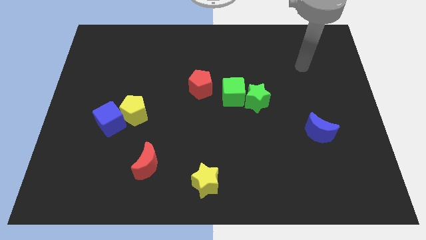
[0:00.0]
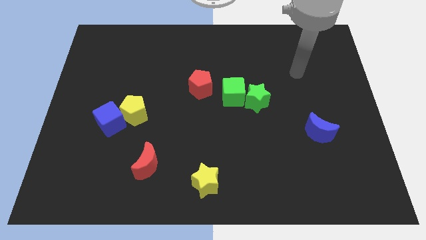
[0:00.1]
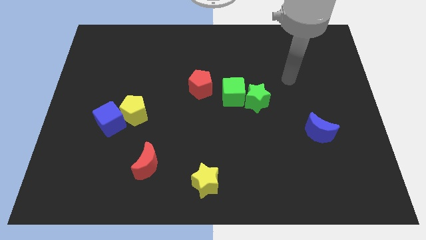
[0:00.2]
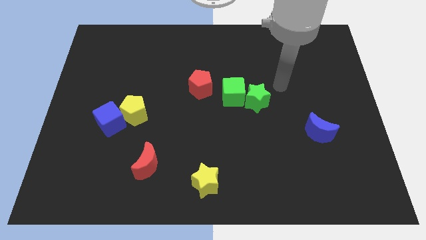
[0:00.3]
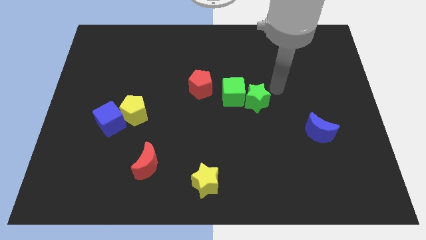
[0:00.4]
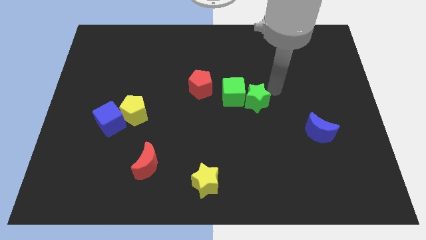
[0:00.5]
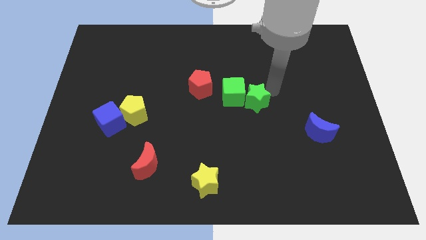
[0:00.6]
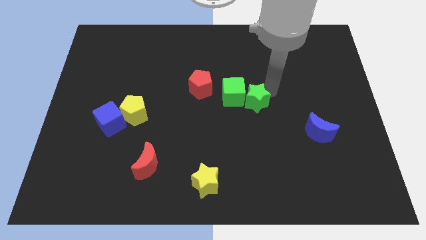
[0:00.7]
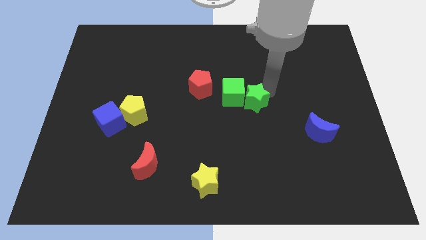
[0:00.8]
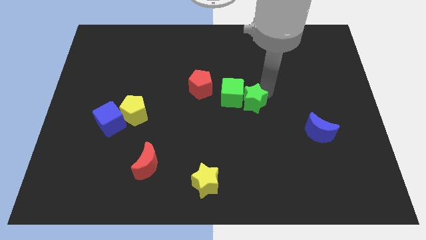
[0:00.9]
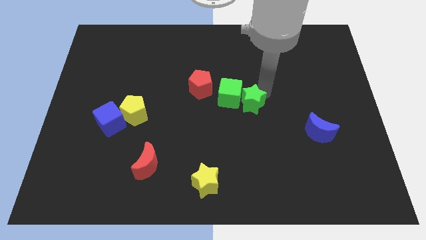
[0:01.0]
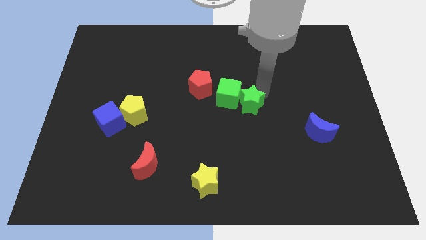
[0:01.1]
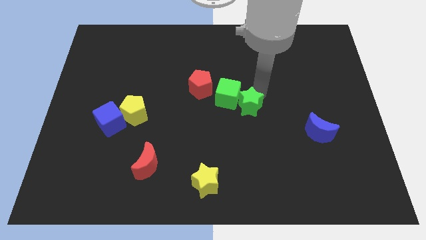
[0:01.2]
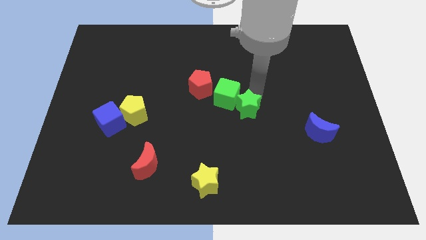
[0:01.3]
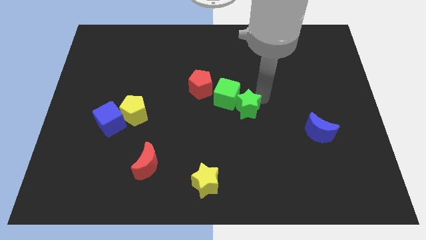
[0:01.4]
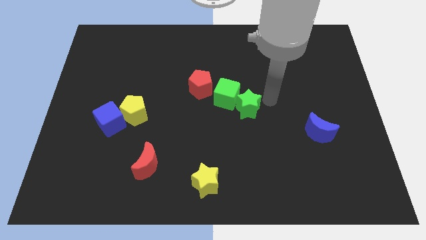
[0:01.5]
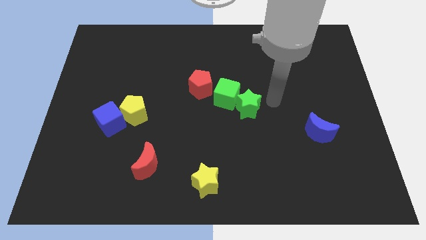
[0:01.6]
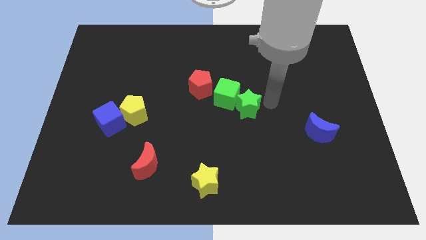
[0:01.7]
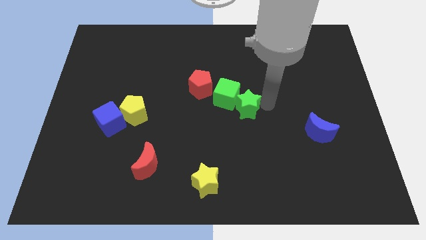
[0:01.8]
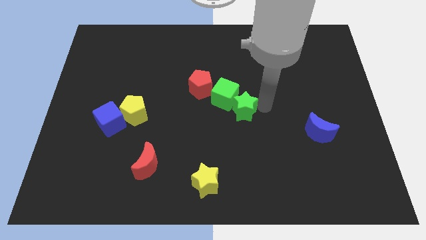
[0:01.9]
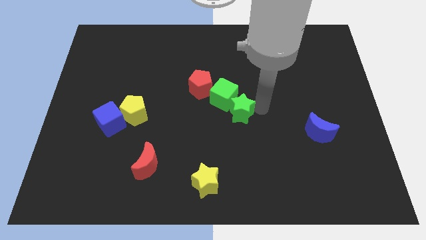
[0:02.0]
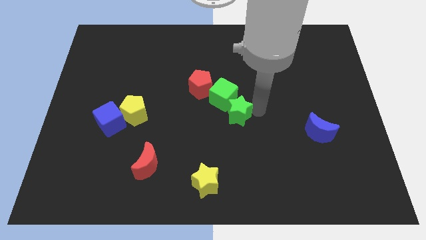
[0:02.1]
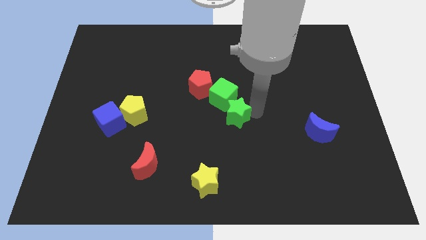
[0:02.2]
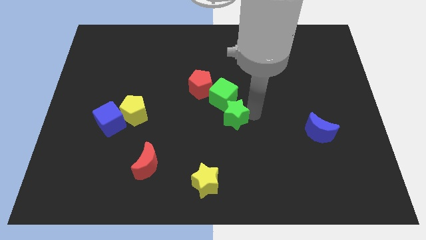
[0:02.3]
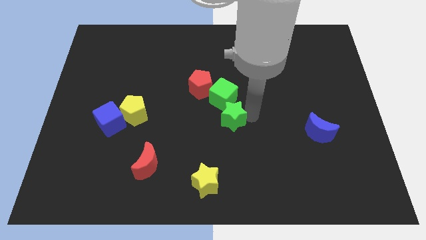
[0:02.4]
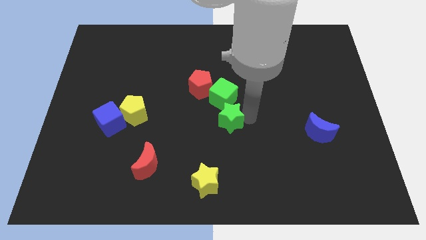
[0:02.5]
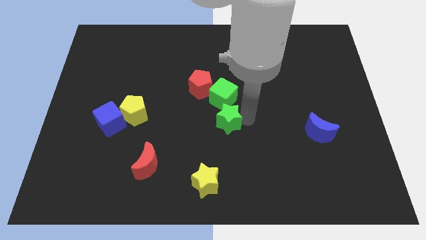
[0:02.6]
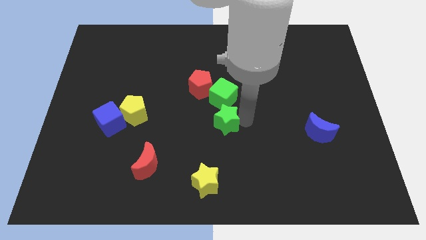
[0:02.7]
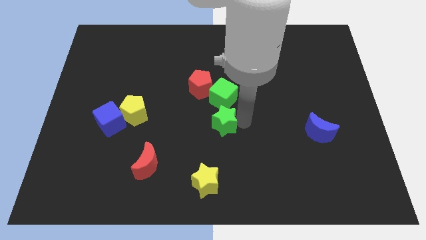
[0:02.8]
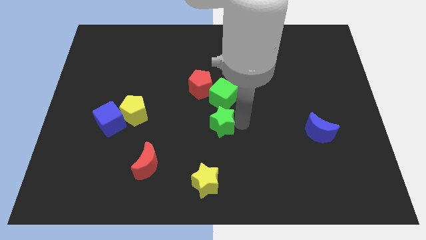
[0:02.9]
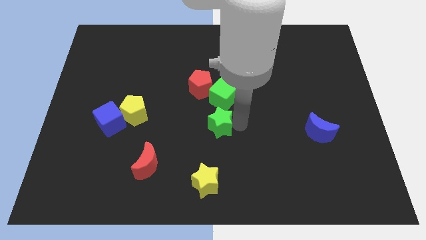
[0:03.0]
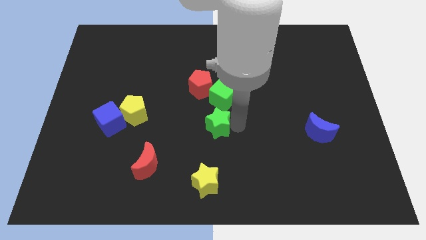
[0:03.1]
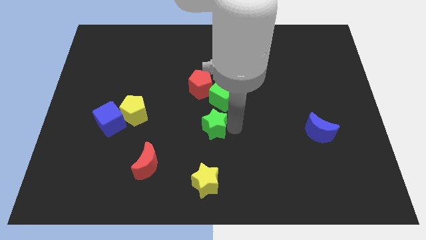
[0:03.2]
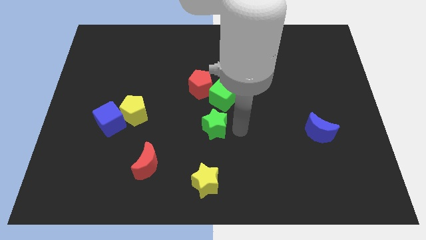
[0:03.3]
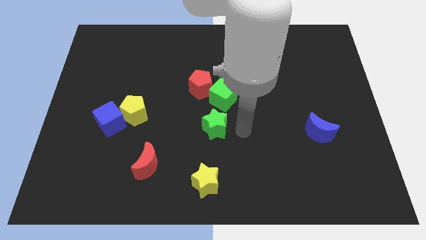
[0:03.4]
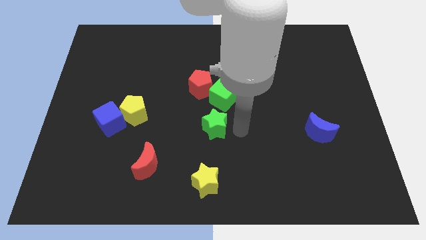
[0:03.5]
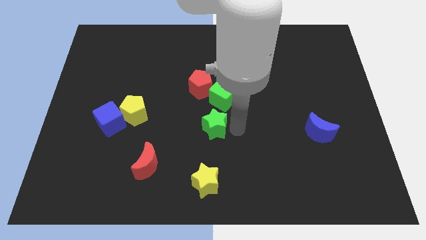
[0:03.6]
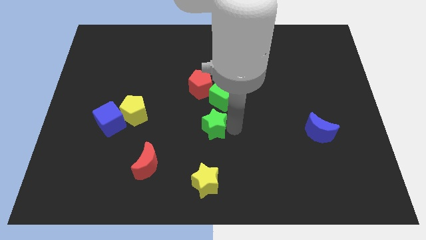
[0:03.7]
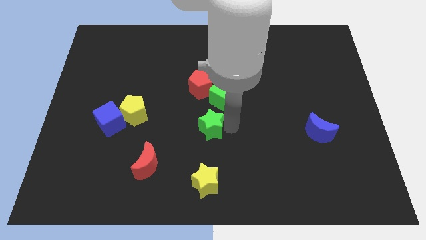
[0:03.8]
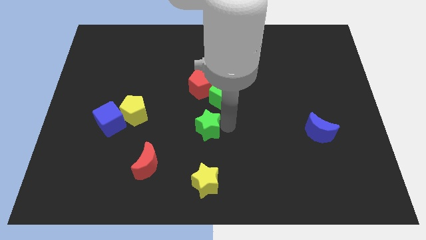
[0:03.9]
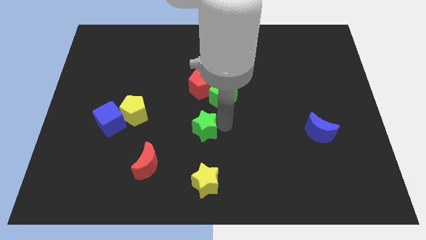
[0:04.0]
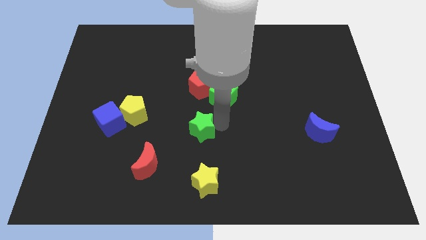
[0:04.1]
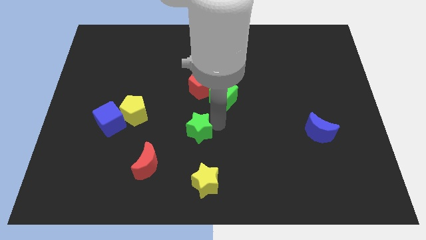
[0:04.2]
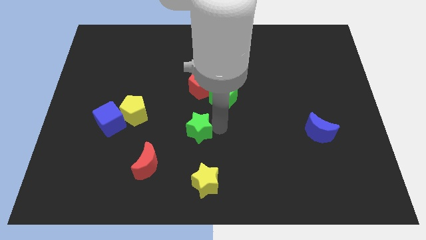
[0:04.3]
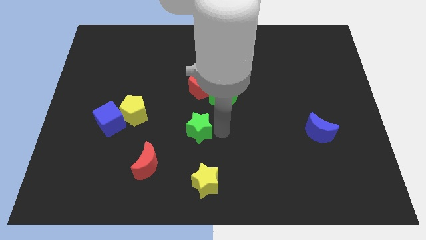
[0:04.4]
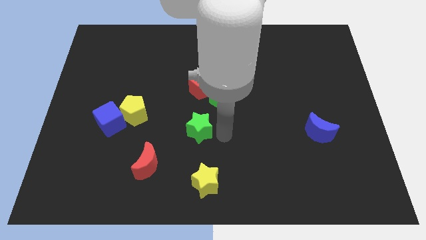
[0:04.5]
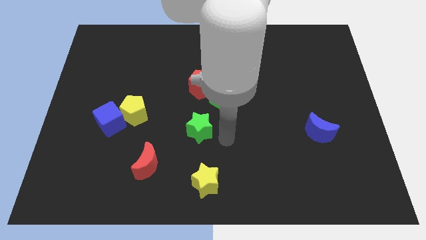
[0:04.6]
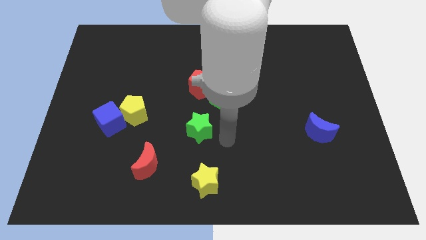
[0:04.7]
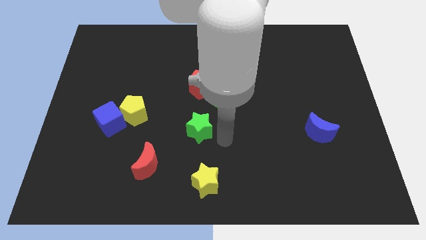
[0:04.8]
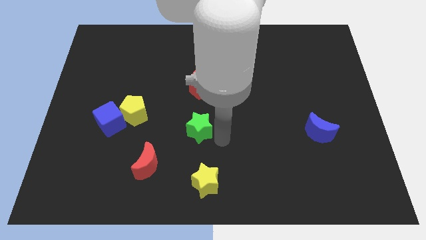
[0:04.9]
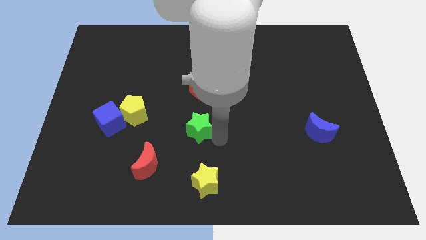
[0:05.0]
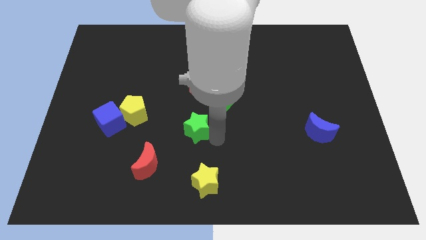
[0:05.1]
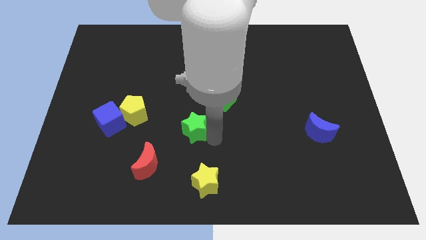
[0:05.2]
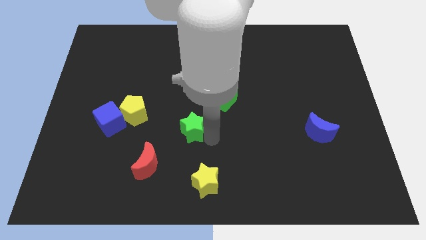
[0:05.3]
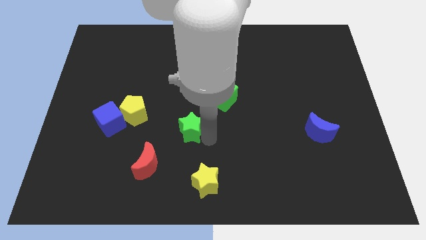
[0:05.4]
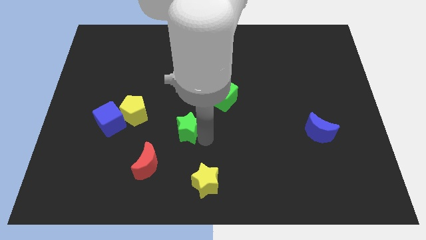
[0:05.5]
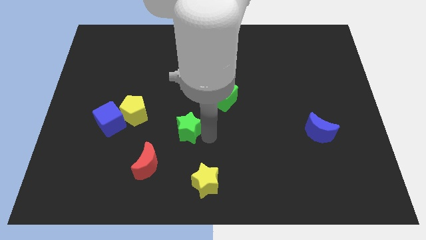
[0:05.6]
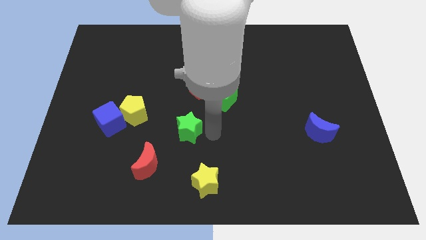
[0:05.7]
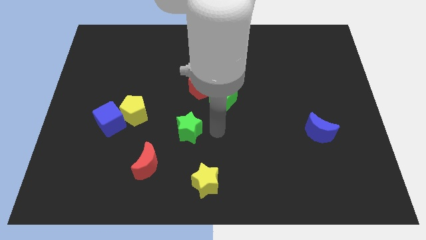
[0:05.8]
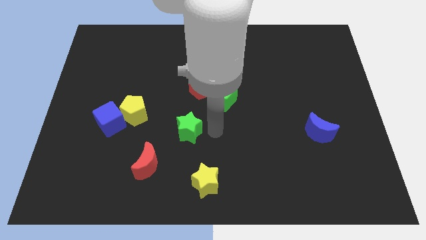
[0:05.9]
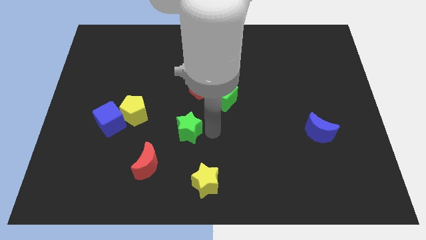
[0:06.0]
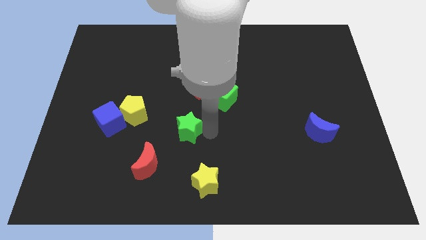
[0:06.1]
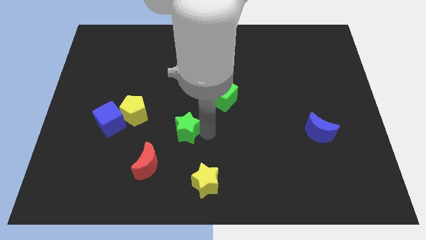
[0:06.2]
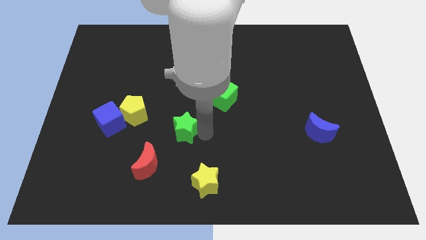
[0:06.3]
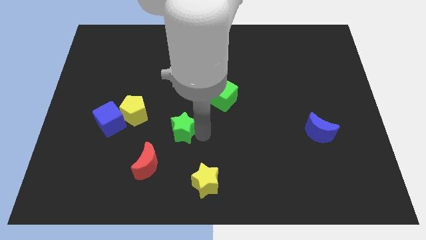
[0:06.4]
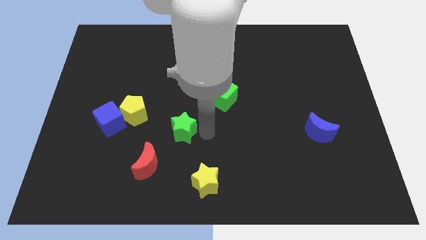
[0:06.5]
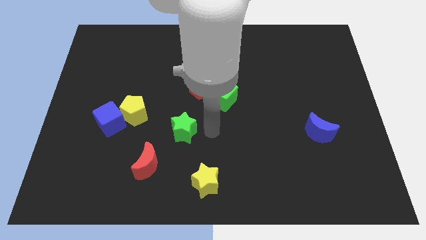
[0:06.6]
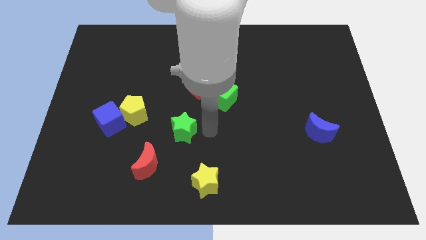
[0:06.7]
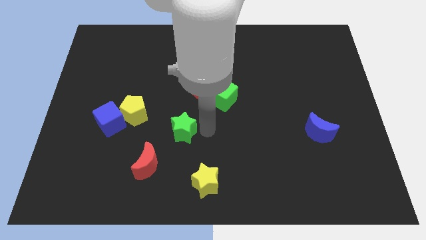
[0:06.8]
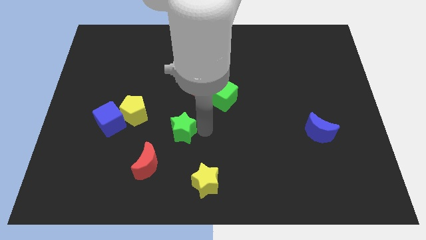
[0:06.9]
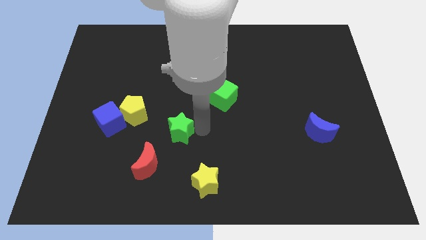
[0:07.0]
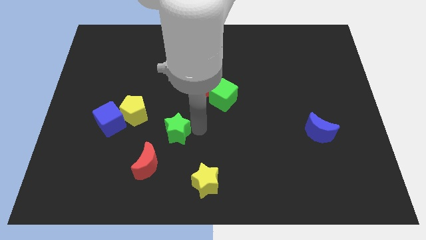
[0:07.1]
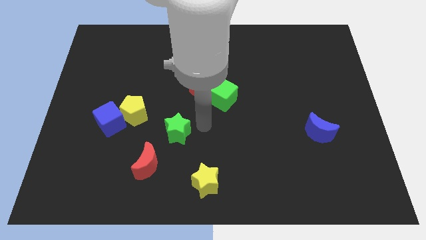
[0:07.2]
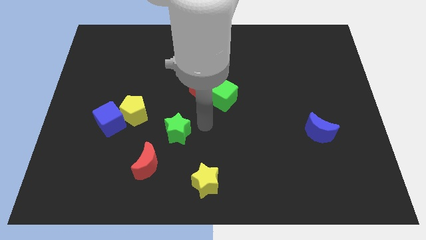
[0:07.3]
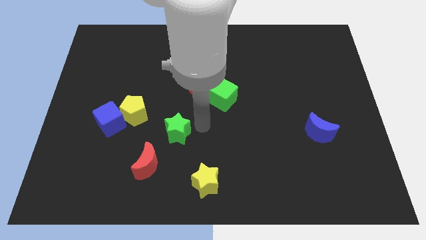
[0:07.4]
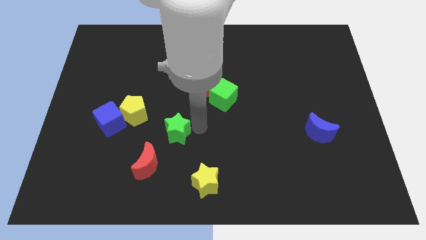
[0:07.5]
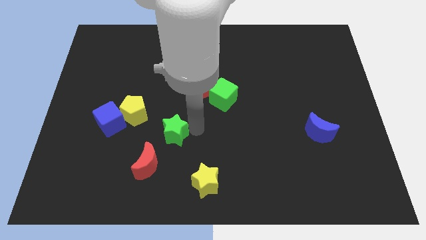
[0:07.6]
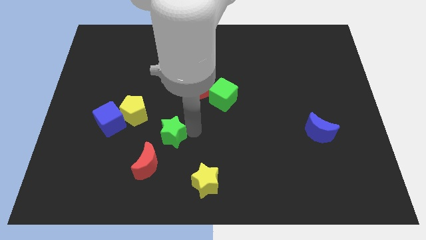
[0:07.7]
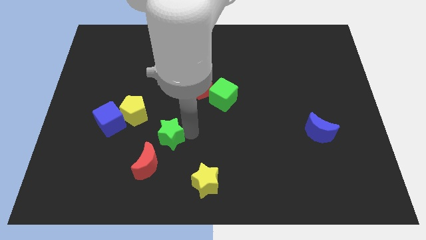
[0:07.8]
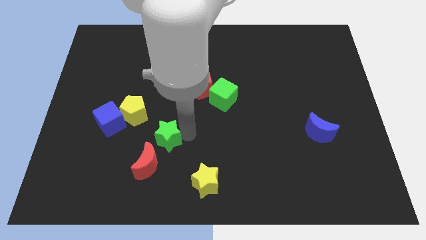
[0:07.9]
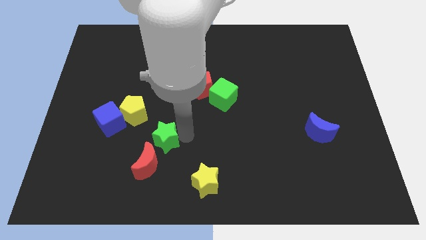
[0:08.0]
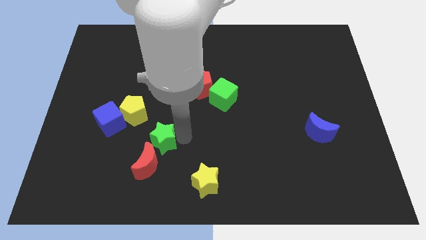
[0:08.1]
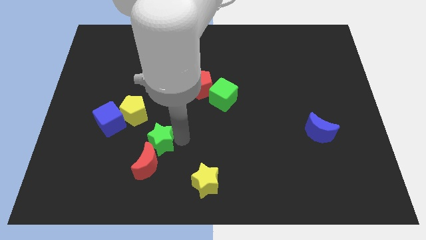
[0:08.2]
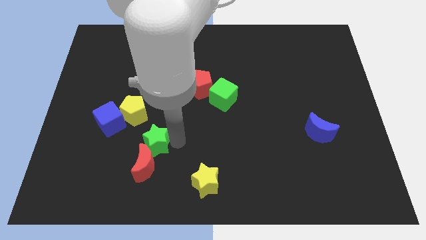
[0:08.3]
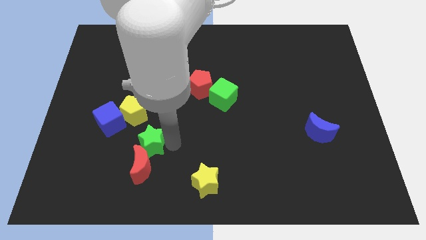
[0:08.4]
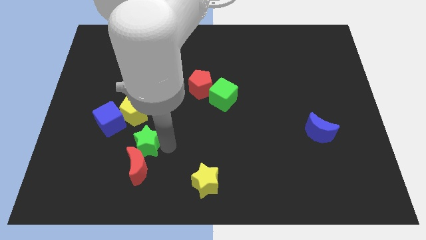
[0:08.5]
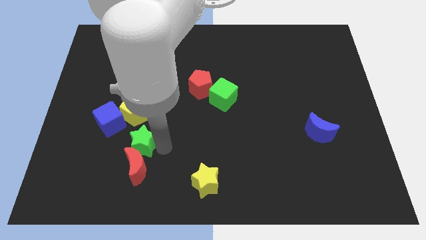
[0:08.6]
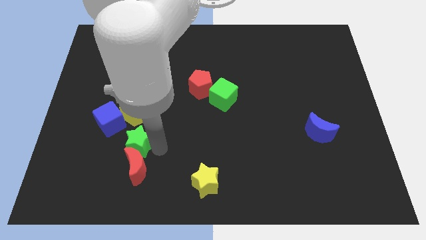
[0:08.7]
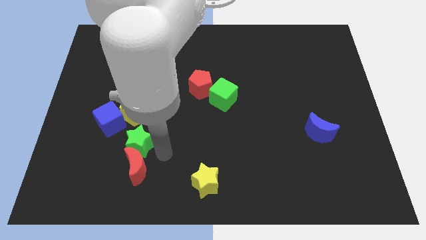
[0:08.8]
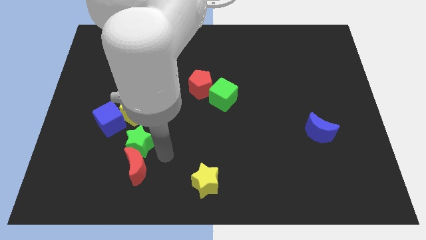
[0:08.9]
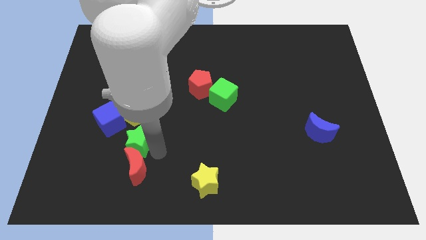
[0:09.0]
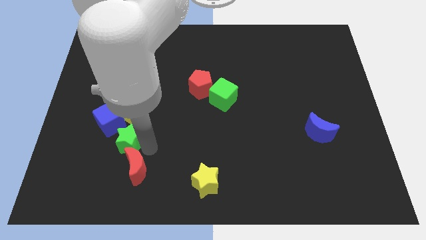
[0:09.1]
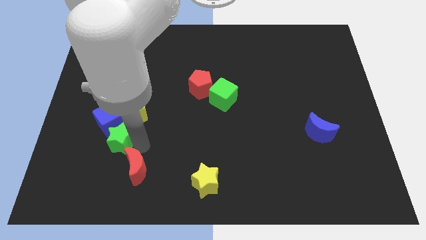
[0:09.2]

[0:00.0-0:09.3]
move the green star to the bottom left of the yellow pentagon
